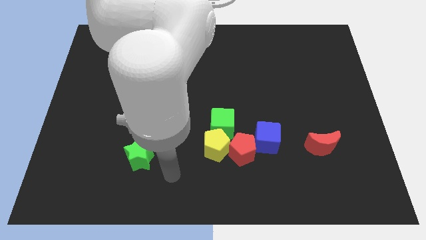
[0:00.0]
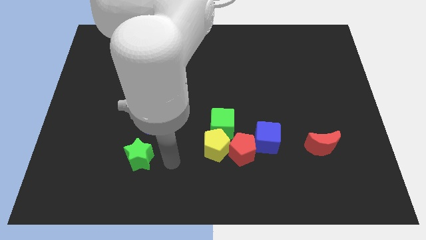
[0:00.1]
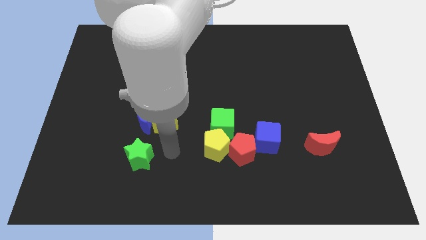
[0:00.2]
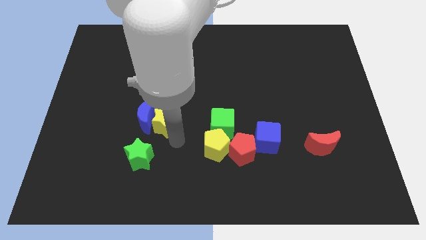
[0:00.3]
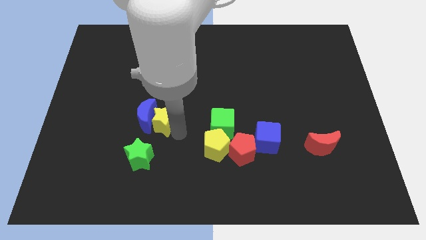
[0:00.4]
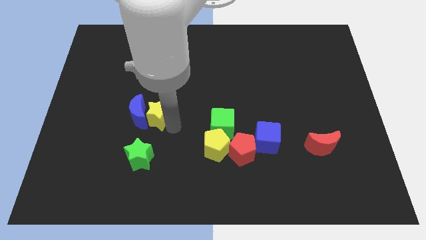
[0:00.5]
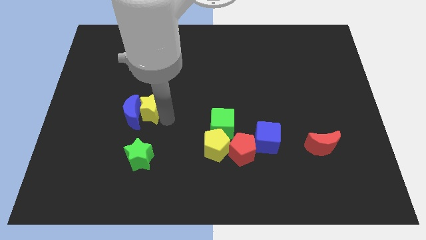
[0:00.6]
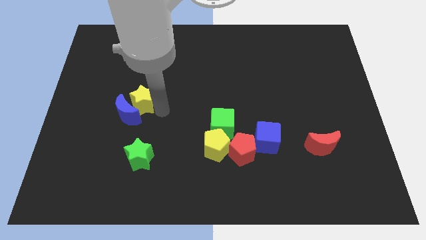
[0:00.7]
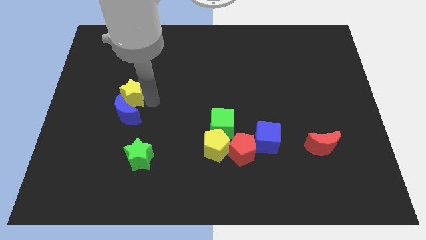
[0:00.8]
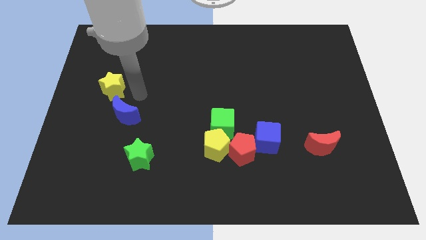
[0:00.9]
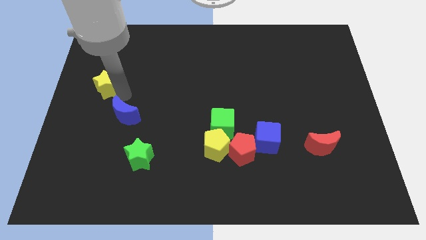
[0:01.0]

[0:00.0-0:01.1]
separate the blue moon from the yellow star

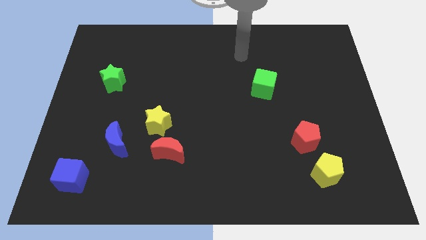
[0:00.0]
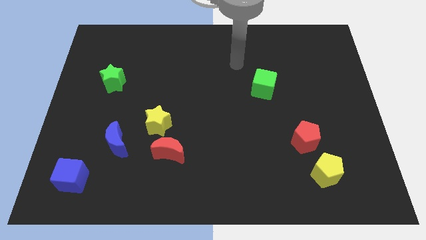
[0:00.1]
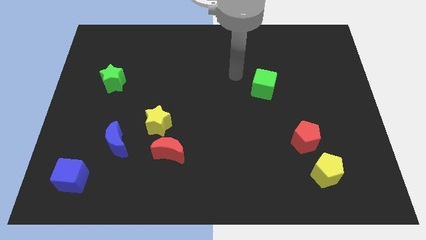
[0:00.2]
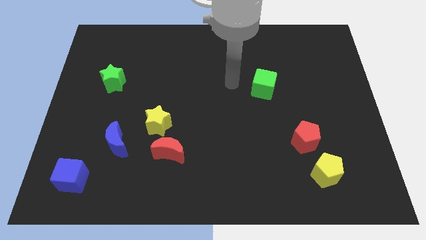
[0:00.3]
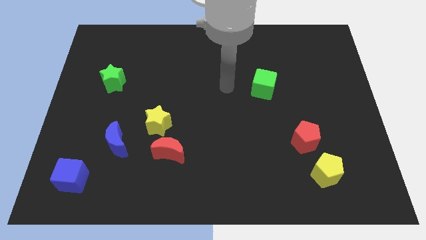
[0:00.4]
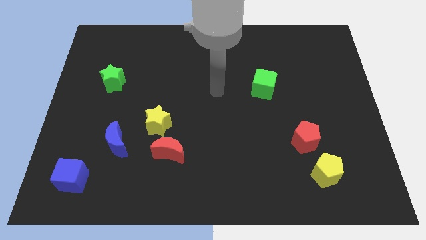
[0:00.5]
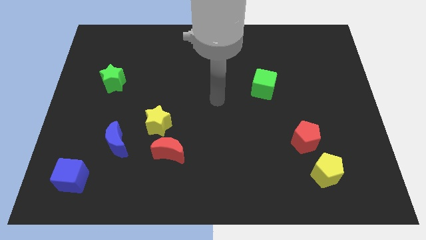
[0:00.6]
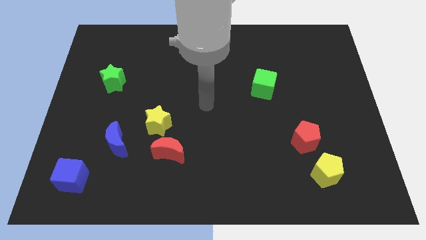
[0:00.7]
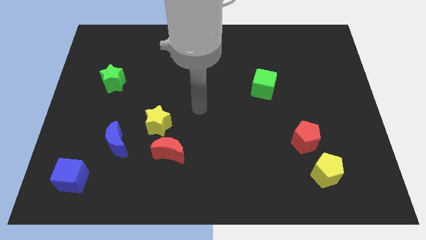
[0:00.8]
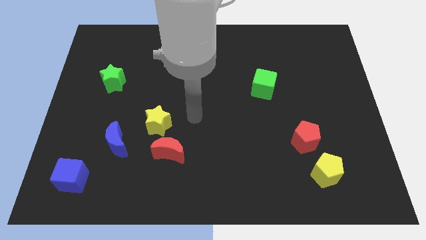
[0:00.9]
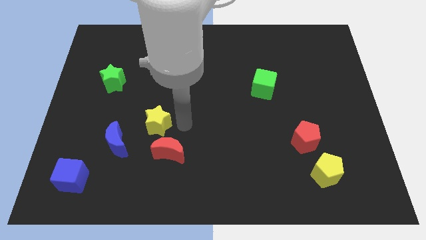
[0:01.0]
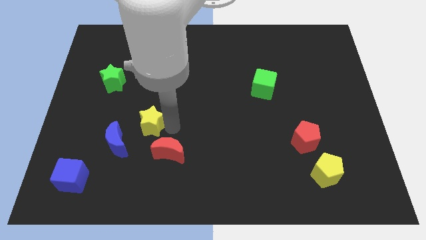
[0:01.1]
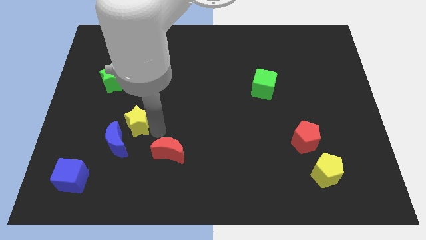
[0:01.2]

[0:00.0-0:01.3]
separate the red moon from the yellow star

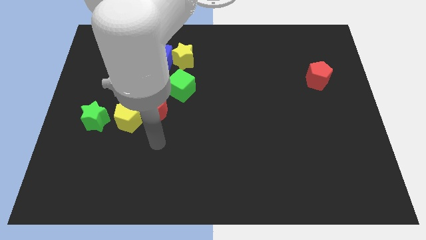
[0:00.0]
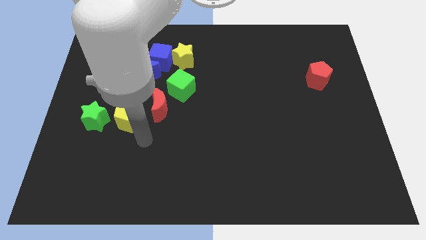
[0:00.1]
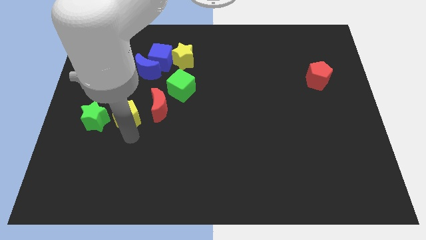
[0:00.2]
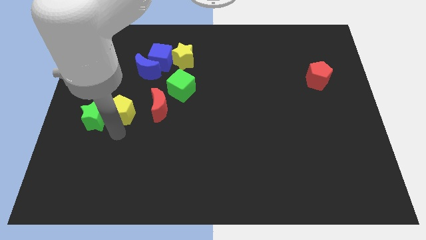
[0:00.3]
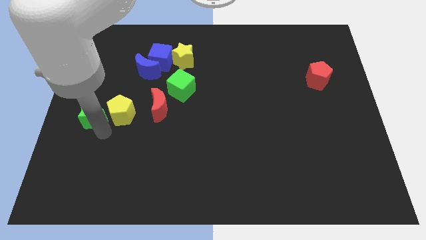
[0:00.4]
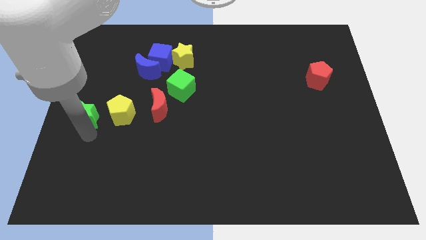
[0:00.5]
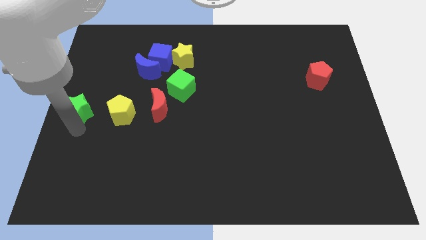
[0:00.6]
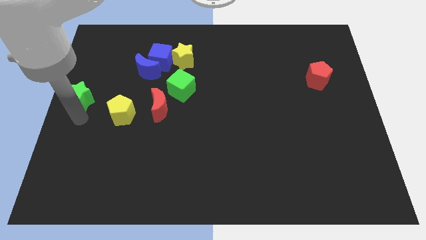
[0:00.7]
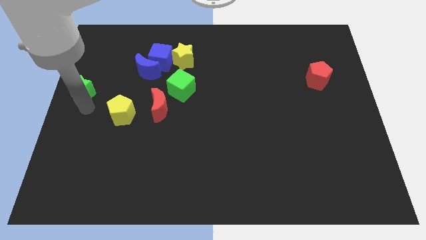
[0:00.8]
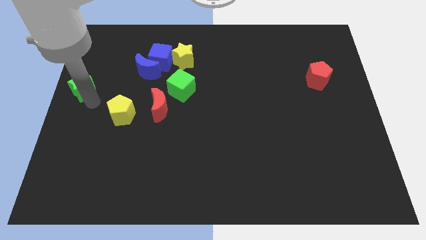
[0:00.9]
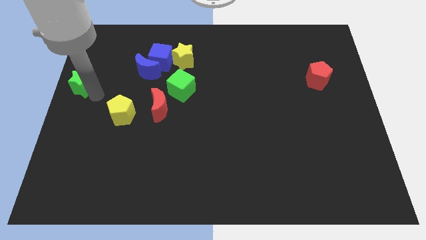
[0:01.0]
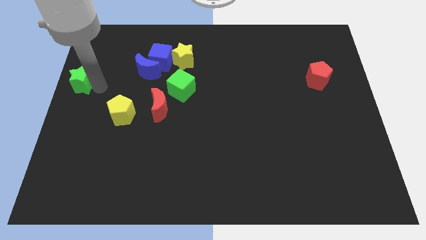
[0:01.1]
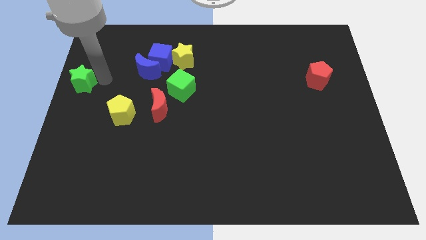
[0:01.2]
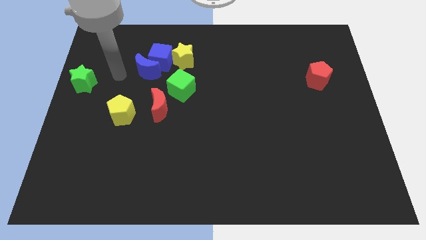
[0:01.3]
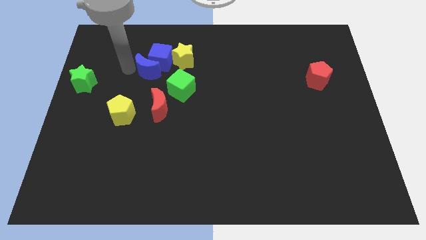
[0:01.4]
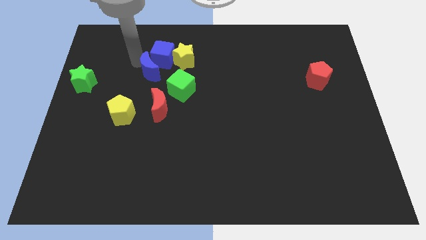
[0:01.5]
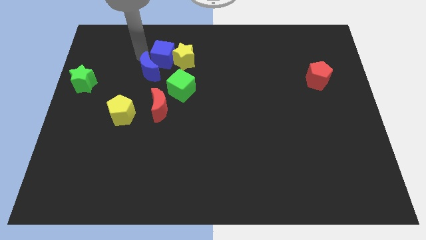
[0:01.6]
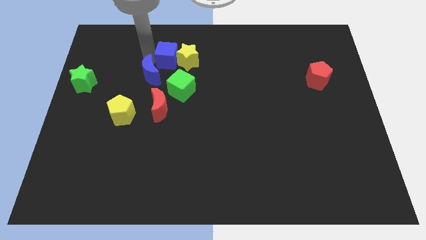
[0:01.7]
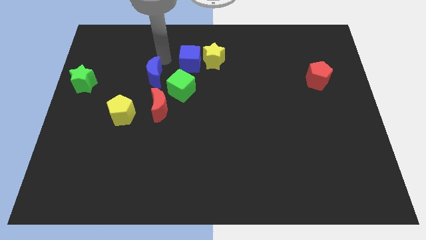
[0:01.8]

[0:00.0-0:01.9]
separate the blue moon from the blue cube

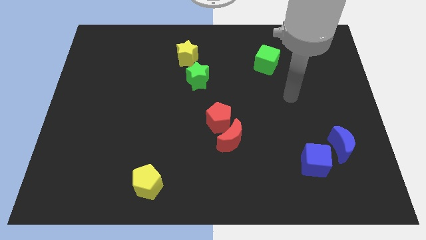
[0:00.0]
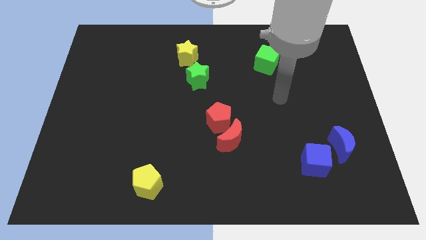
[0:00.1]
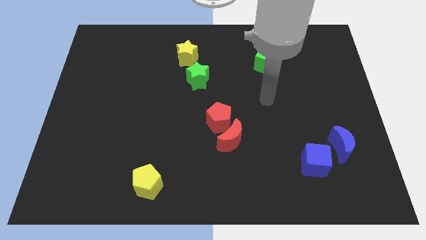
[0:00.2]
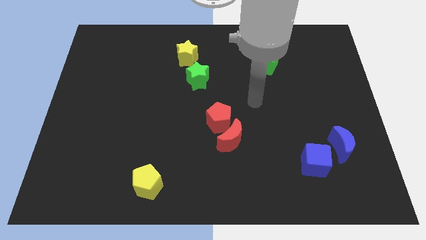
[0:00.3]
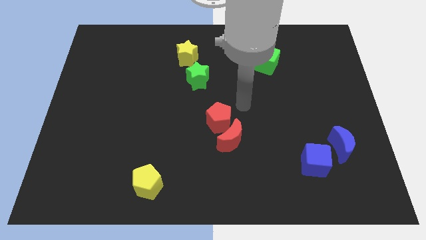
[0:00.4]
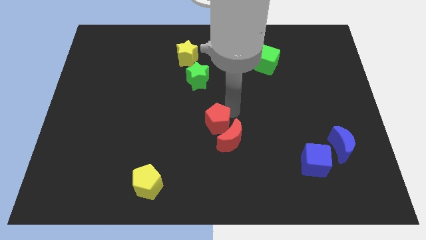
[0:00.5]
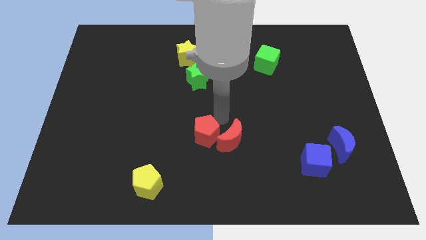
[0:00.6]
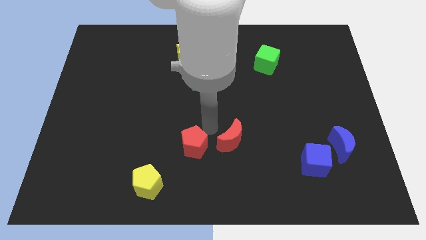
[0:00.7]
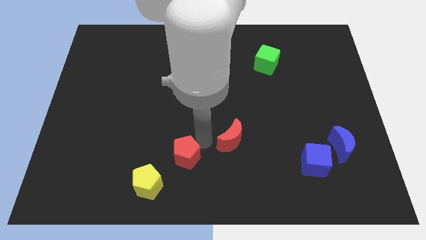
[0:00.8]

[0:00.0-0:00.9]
pull the red moon apart from the red pentagon

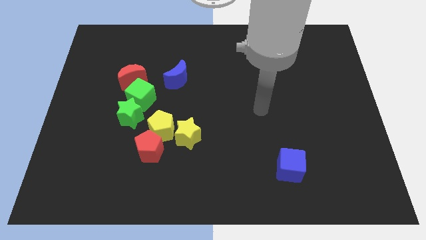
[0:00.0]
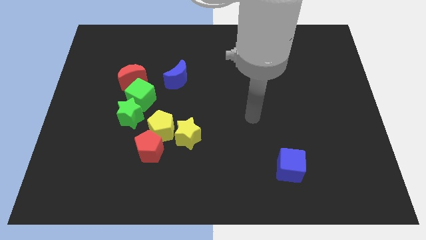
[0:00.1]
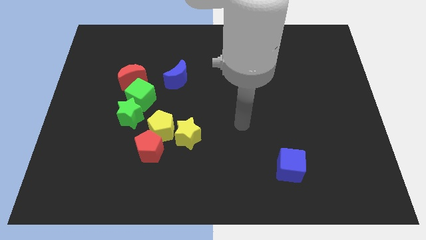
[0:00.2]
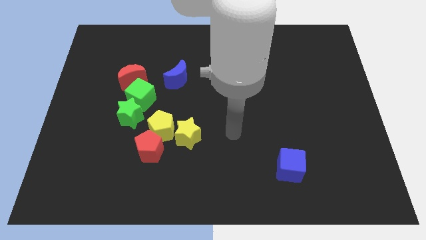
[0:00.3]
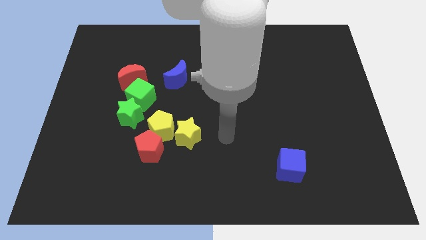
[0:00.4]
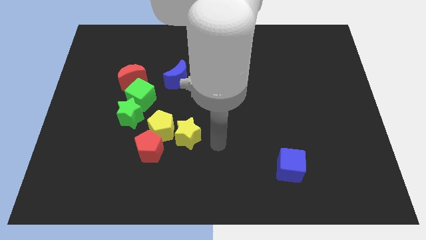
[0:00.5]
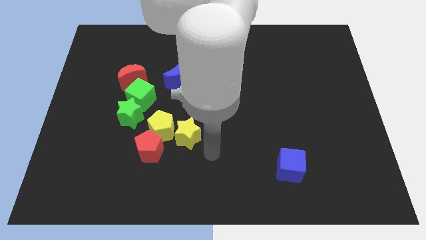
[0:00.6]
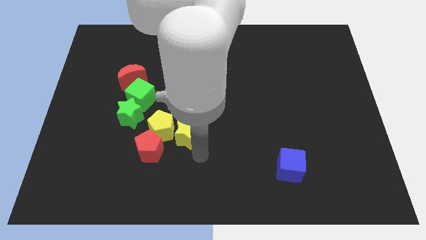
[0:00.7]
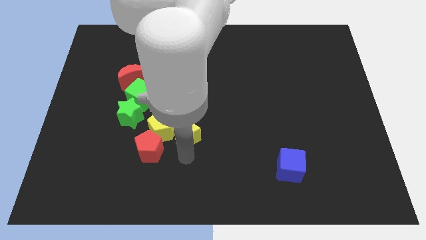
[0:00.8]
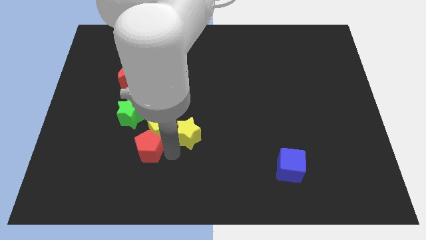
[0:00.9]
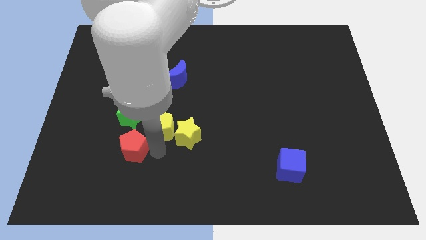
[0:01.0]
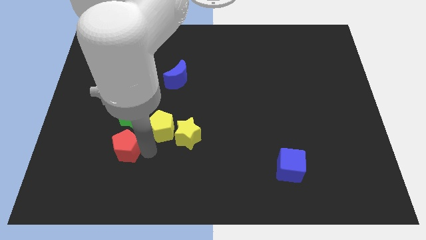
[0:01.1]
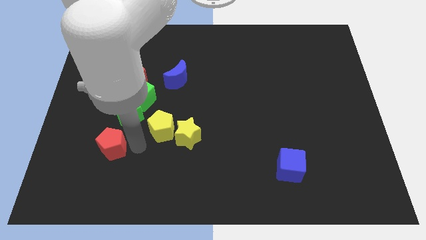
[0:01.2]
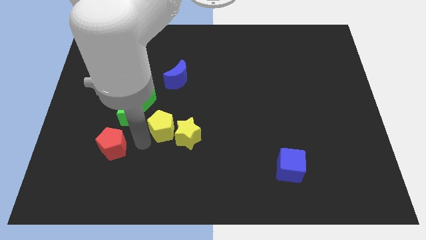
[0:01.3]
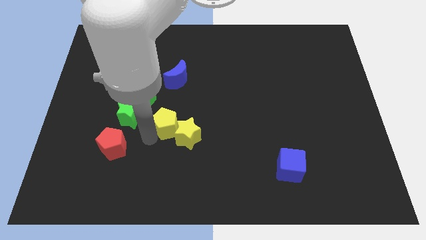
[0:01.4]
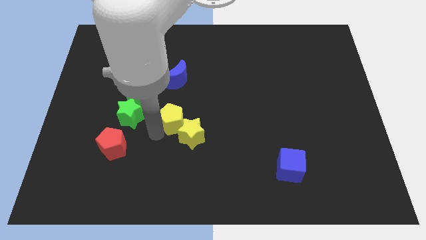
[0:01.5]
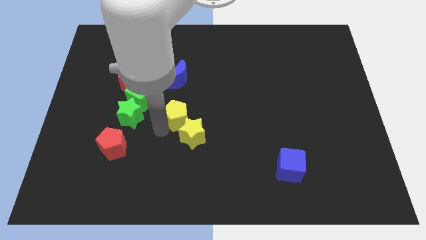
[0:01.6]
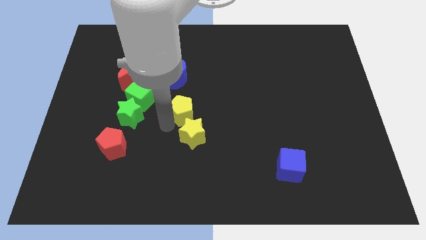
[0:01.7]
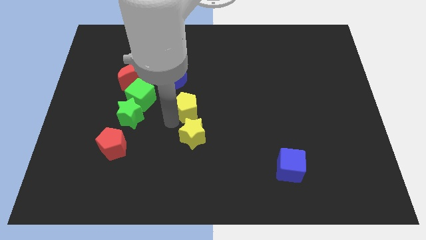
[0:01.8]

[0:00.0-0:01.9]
separate the yellow pentagon from the group

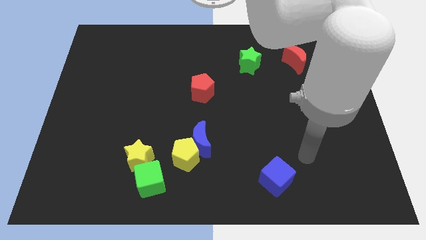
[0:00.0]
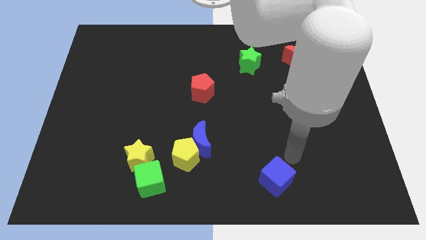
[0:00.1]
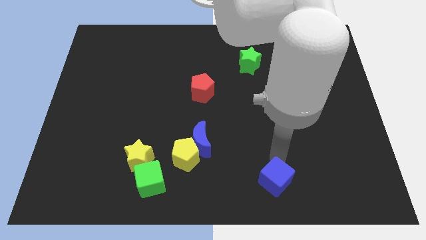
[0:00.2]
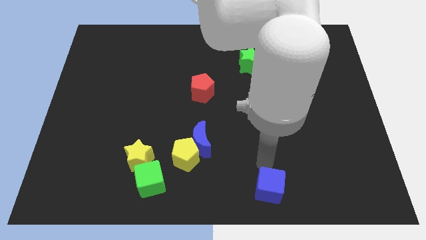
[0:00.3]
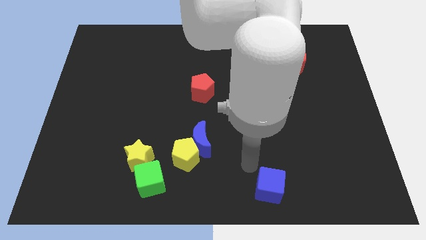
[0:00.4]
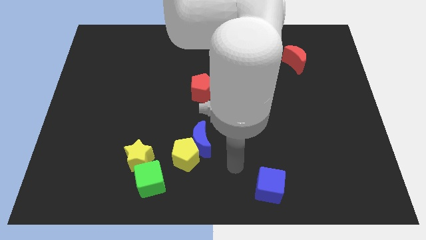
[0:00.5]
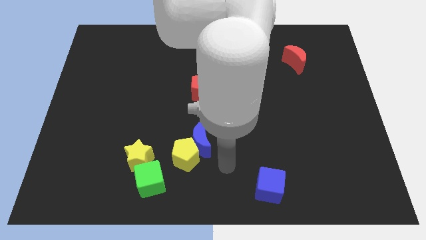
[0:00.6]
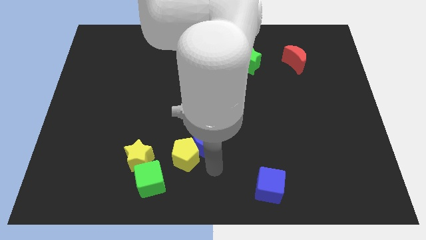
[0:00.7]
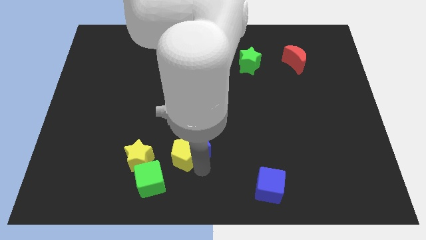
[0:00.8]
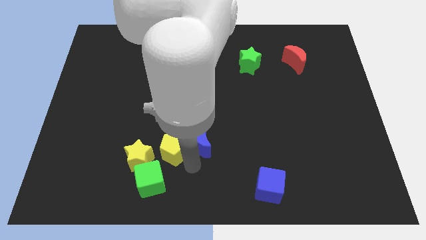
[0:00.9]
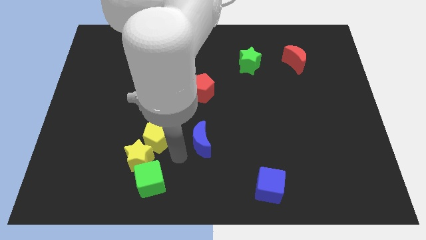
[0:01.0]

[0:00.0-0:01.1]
pull the blue moon apart from the yellow pentagon

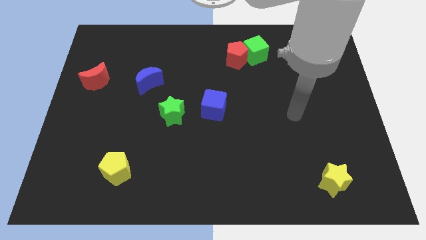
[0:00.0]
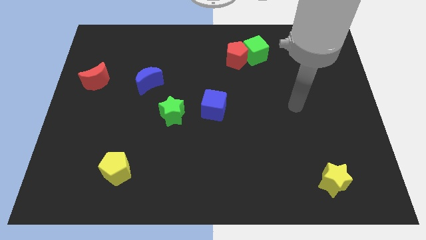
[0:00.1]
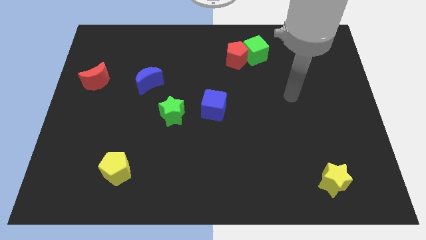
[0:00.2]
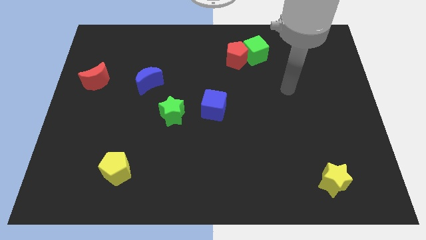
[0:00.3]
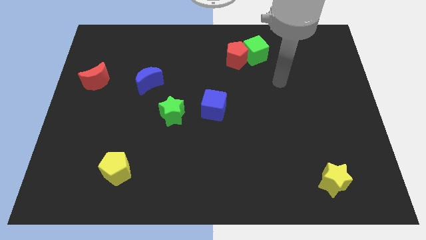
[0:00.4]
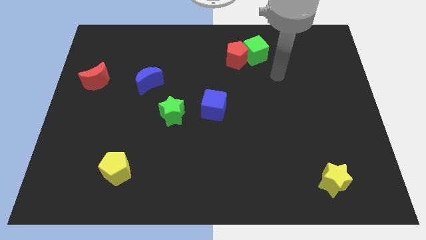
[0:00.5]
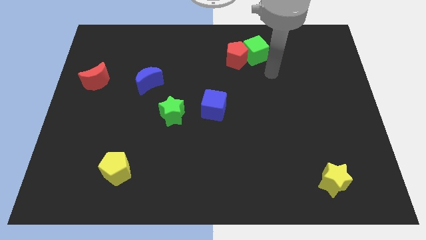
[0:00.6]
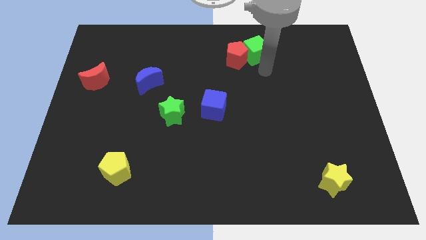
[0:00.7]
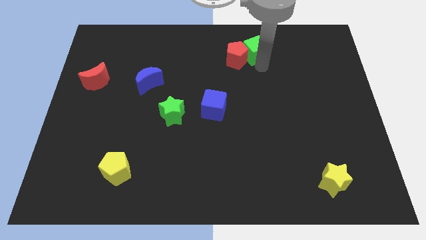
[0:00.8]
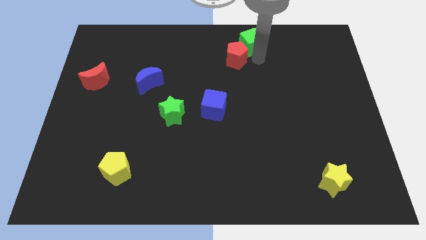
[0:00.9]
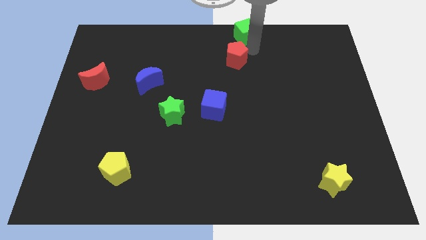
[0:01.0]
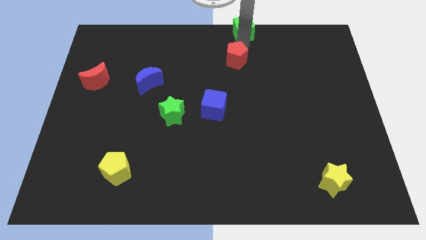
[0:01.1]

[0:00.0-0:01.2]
separate the red pentagon from the green cube
